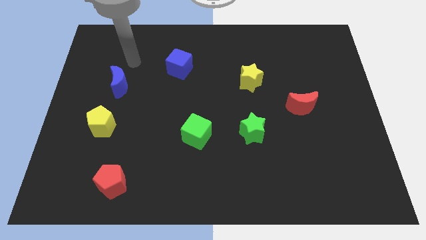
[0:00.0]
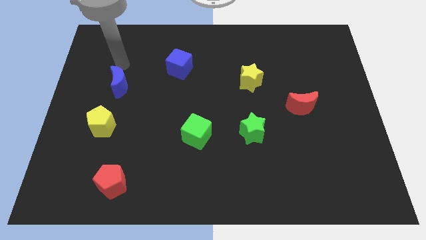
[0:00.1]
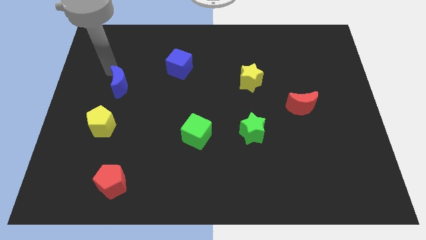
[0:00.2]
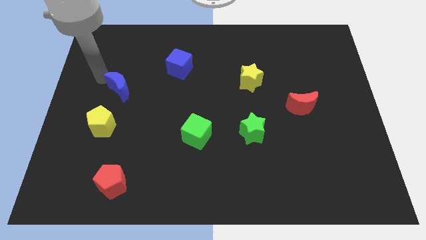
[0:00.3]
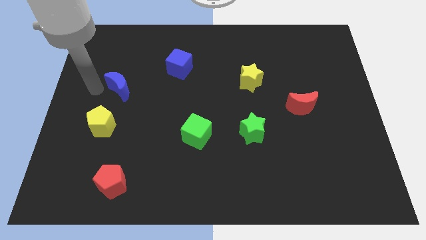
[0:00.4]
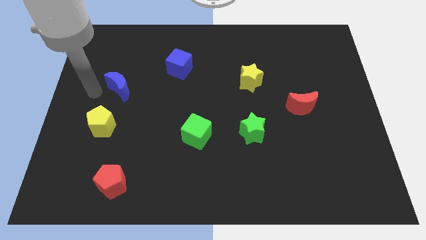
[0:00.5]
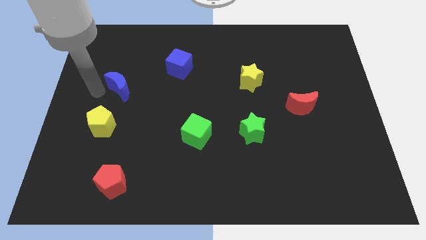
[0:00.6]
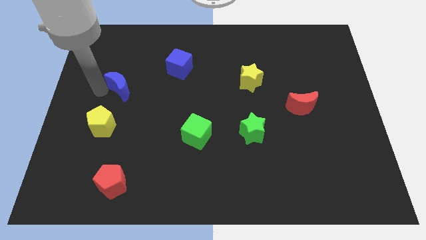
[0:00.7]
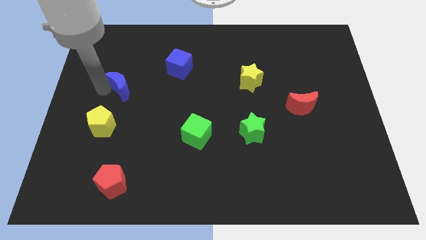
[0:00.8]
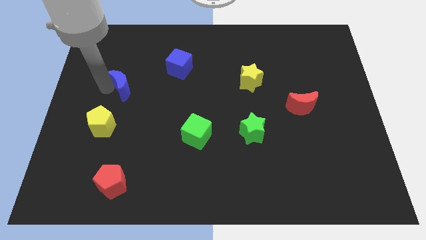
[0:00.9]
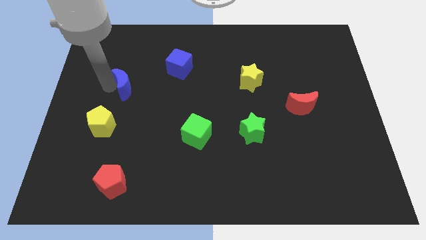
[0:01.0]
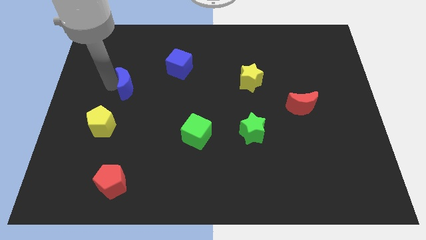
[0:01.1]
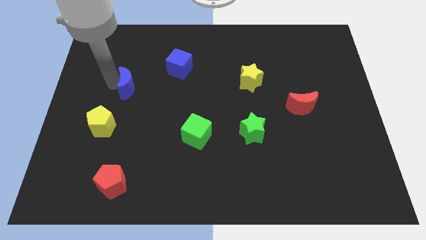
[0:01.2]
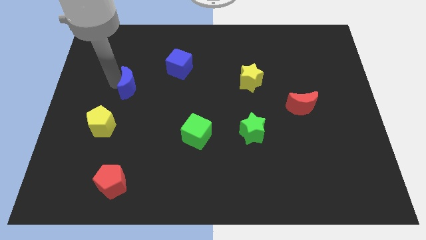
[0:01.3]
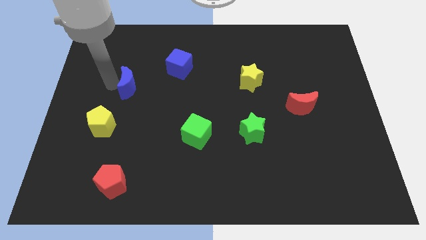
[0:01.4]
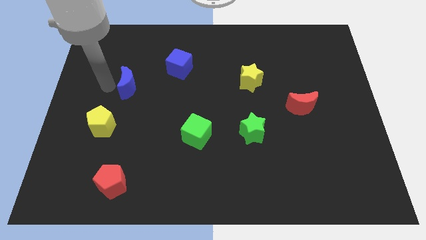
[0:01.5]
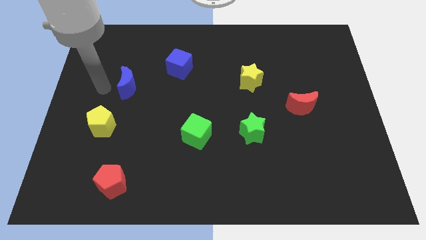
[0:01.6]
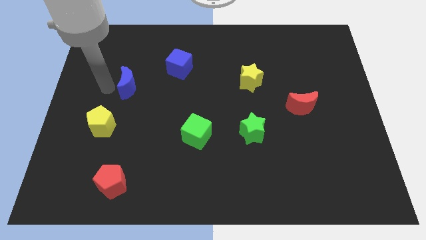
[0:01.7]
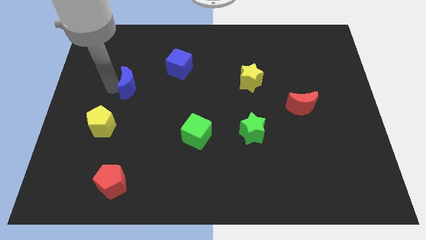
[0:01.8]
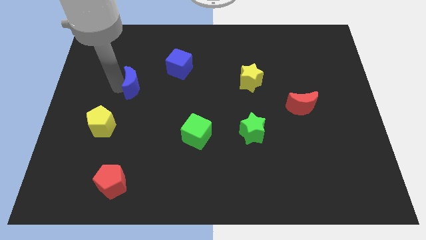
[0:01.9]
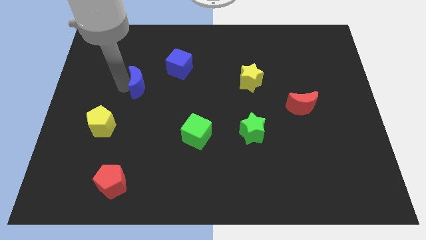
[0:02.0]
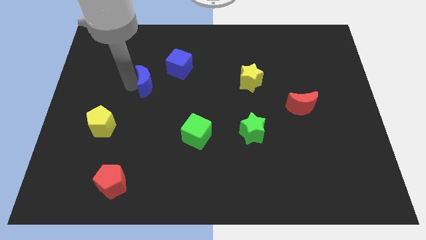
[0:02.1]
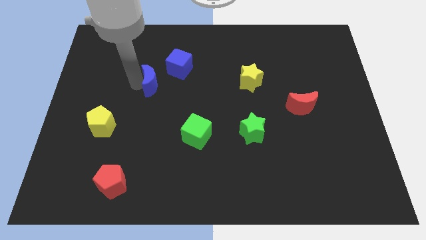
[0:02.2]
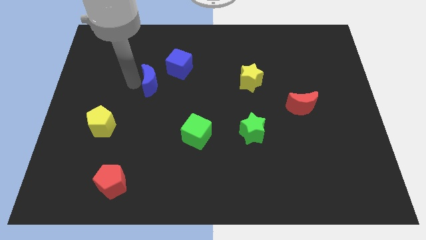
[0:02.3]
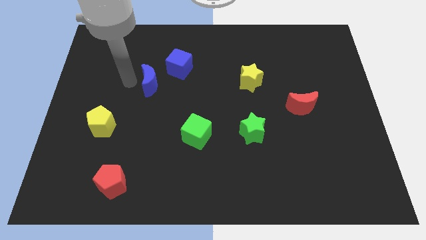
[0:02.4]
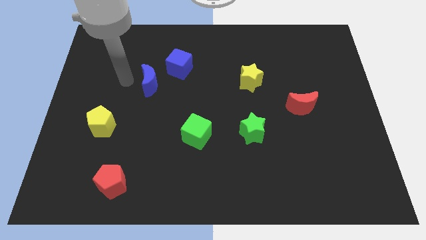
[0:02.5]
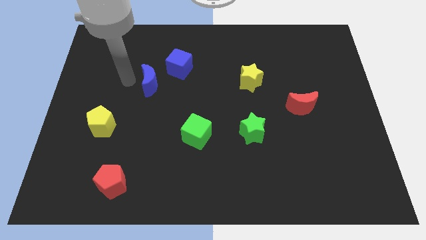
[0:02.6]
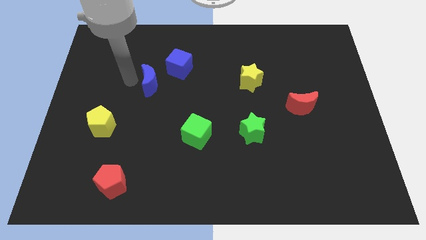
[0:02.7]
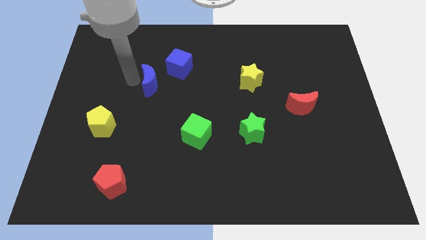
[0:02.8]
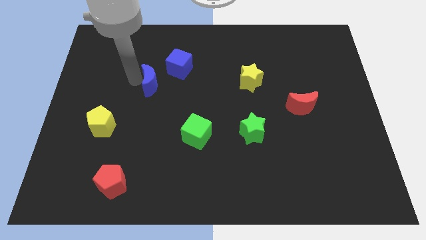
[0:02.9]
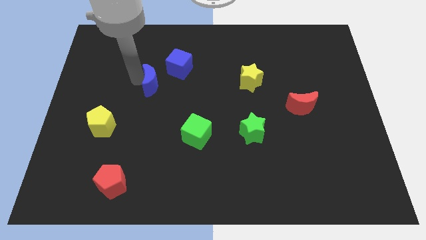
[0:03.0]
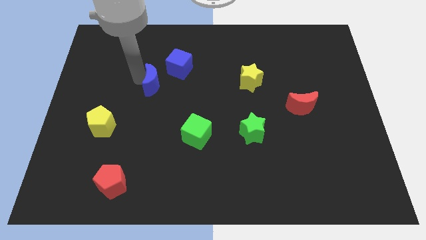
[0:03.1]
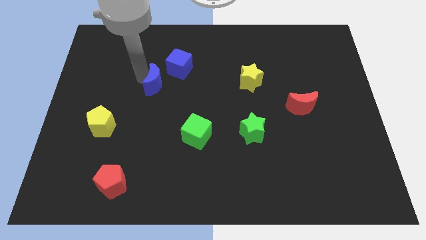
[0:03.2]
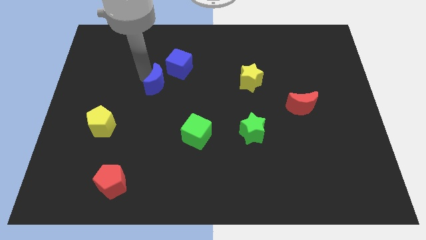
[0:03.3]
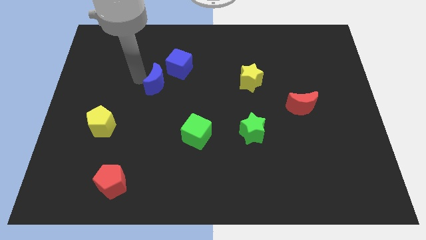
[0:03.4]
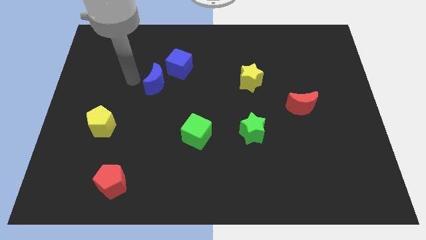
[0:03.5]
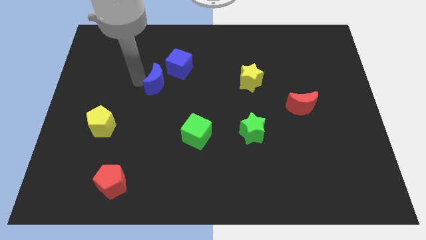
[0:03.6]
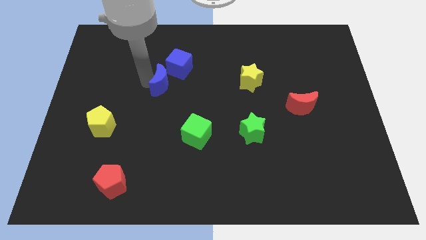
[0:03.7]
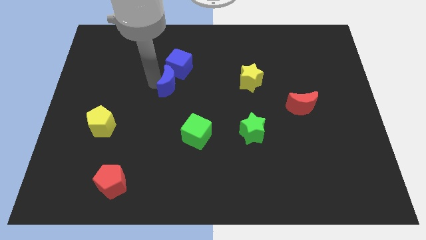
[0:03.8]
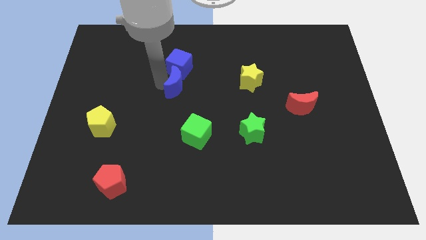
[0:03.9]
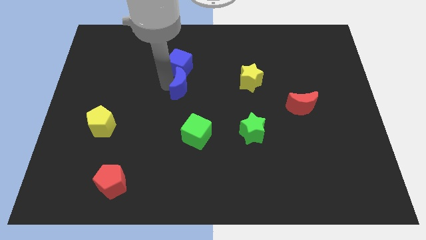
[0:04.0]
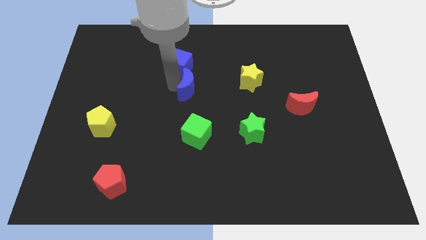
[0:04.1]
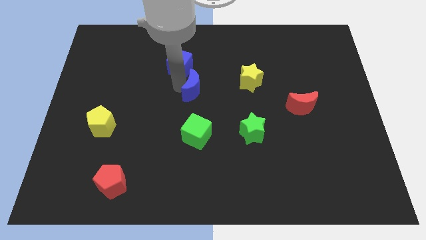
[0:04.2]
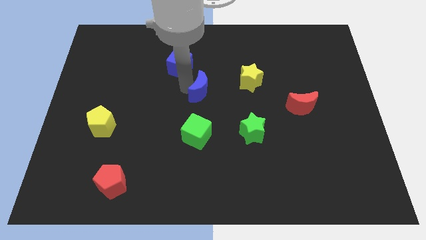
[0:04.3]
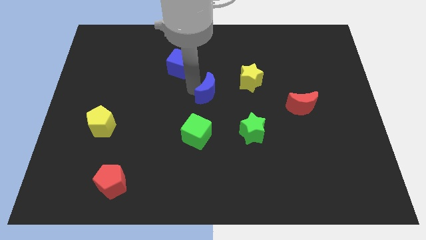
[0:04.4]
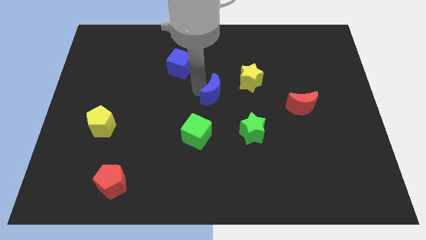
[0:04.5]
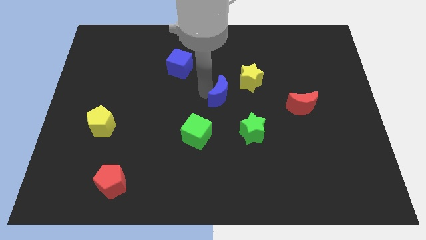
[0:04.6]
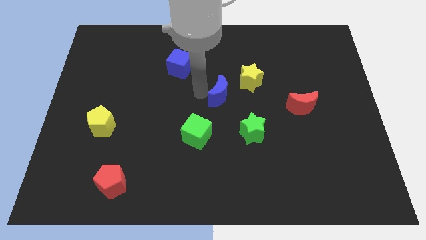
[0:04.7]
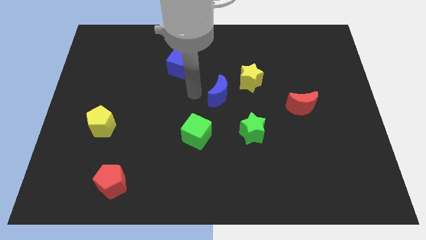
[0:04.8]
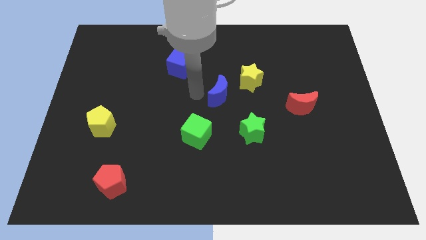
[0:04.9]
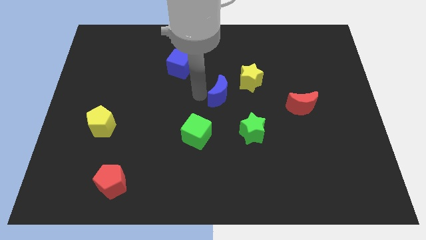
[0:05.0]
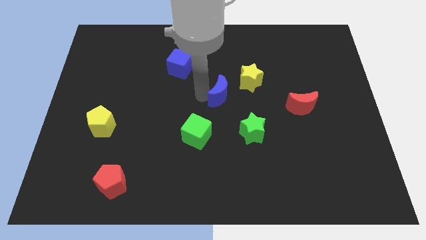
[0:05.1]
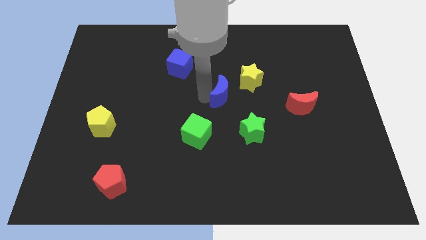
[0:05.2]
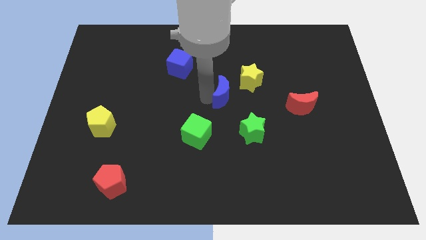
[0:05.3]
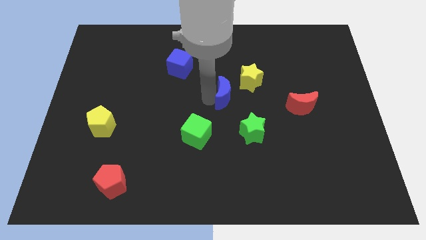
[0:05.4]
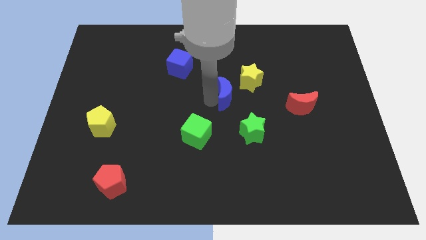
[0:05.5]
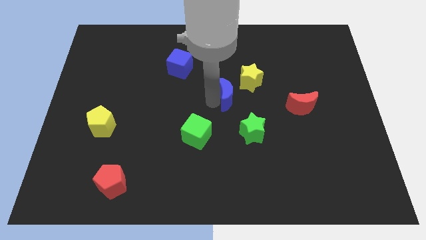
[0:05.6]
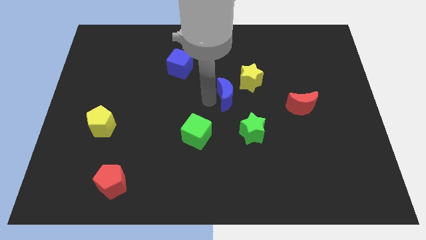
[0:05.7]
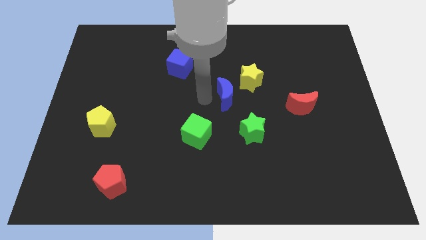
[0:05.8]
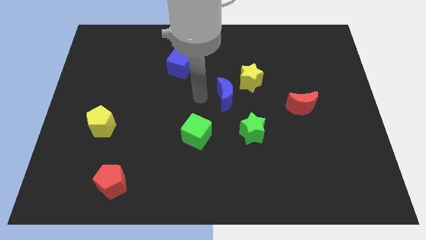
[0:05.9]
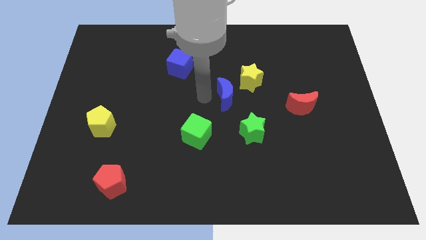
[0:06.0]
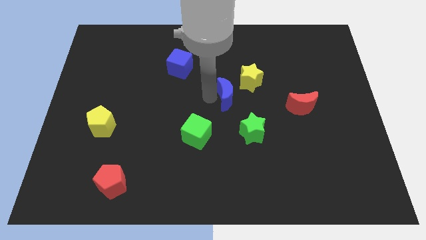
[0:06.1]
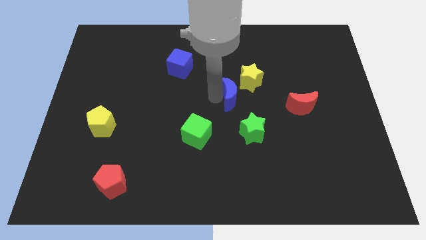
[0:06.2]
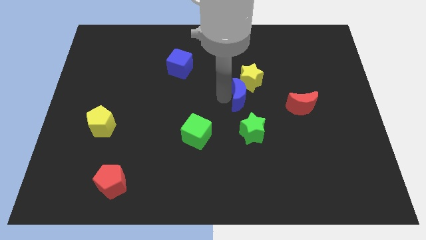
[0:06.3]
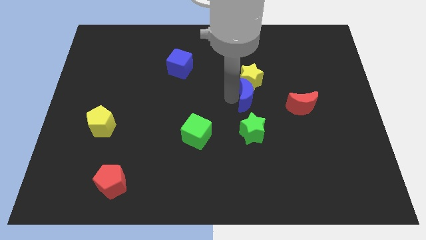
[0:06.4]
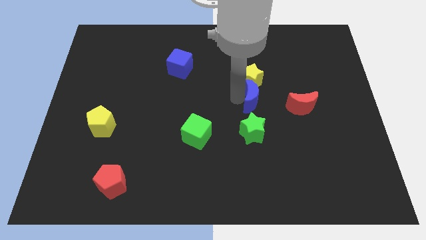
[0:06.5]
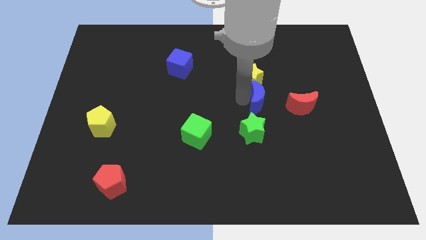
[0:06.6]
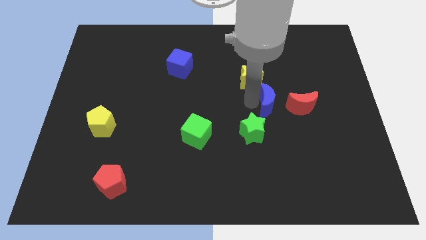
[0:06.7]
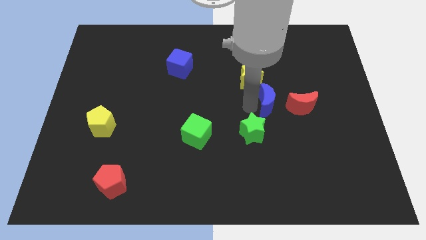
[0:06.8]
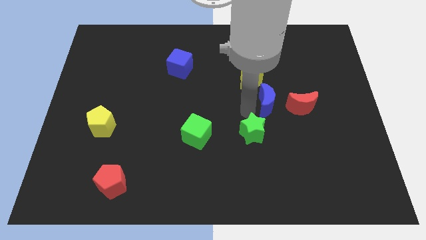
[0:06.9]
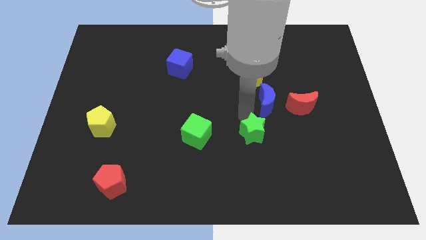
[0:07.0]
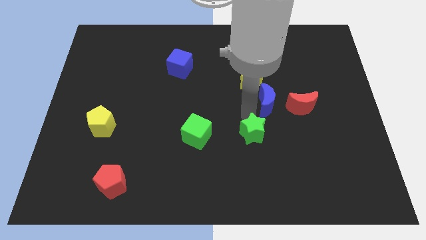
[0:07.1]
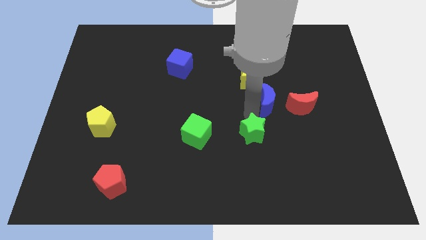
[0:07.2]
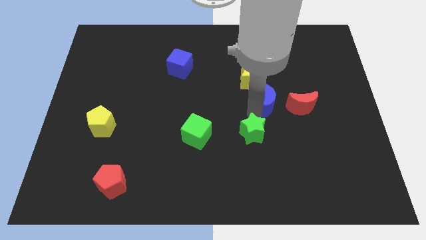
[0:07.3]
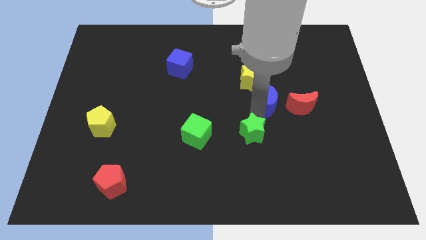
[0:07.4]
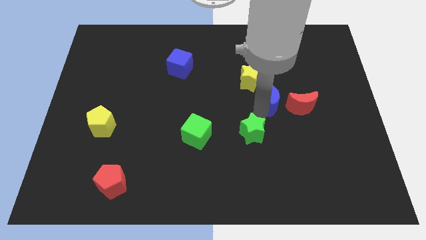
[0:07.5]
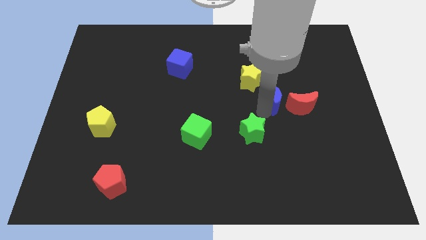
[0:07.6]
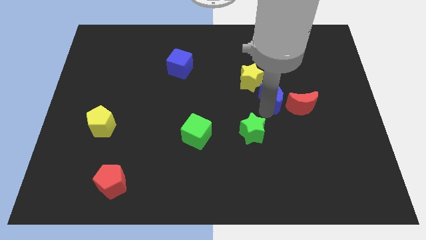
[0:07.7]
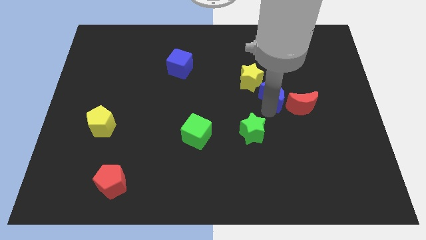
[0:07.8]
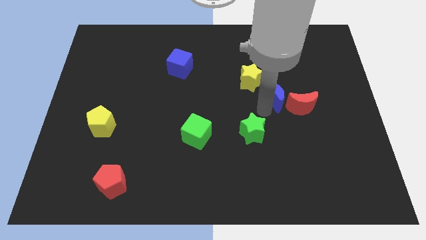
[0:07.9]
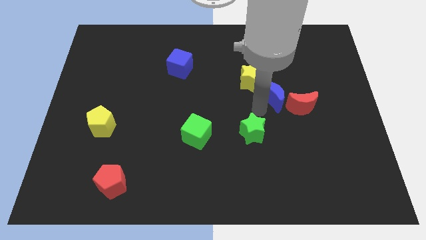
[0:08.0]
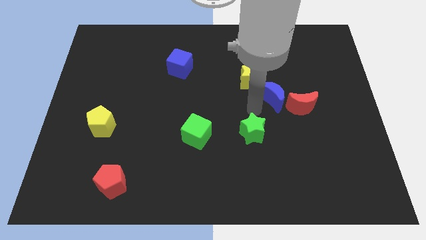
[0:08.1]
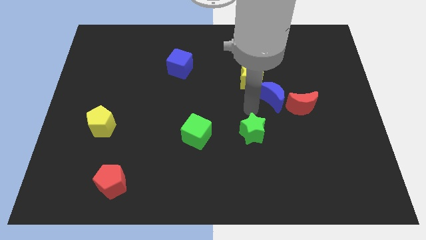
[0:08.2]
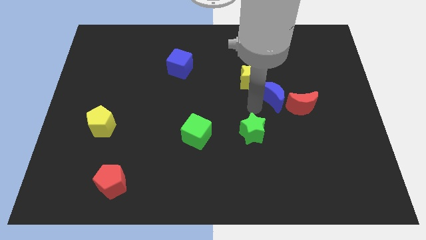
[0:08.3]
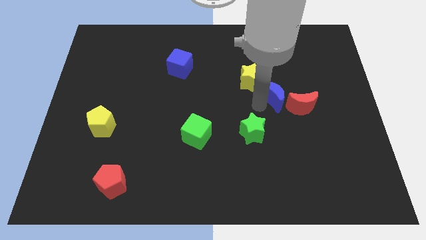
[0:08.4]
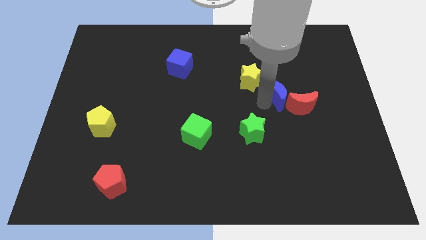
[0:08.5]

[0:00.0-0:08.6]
put the blue moon just right of the yellow star
